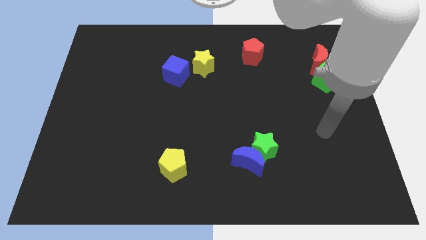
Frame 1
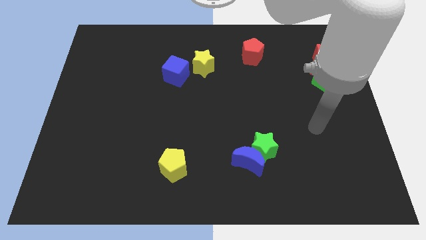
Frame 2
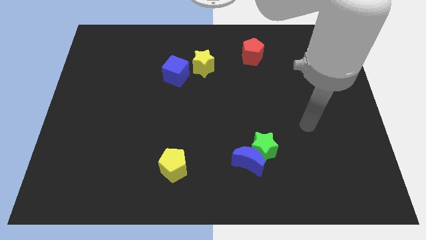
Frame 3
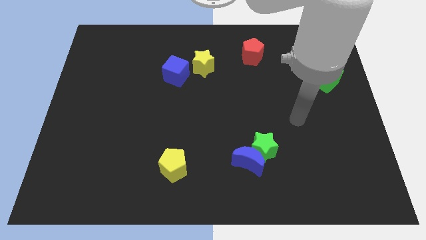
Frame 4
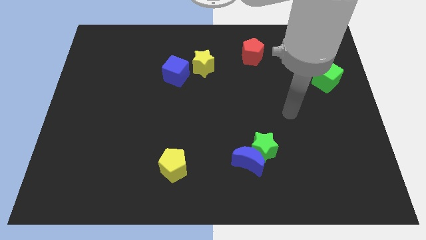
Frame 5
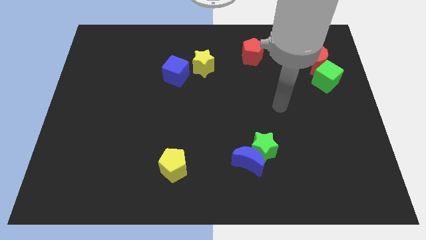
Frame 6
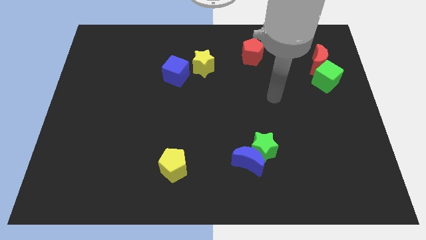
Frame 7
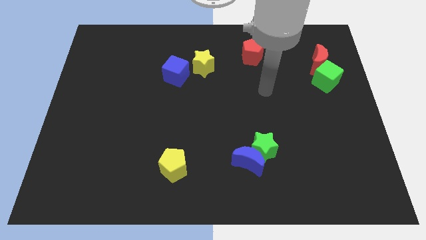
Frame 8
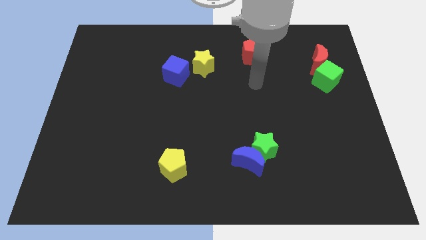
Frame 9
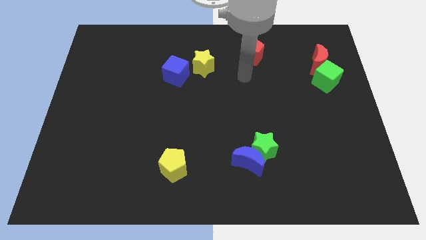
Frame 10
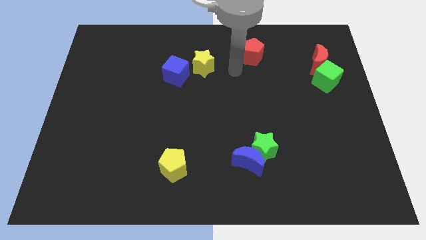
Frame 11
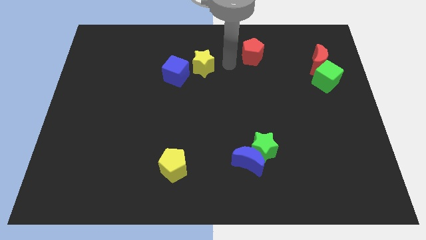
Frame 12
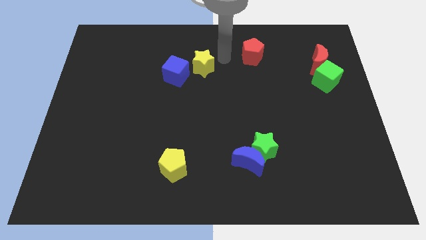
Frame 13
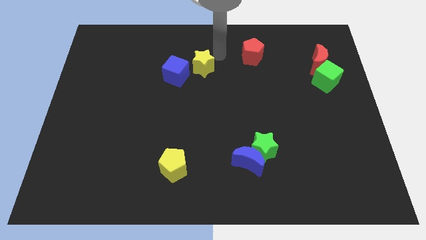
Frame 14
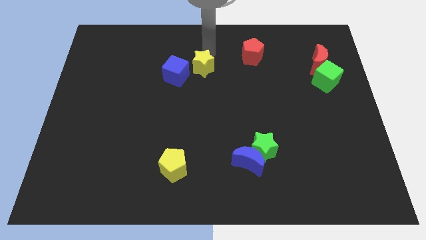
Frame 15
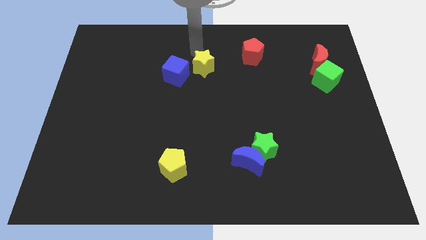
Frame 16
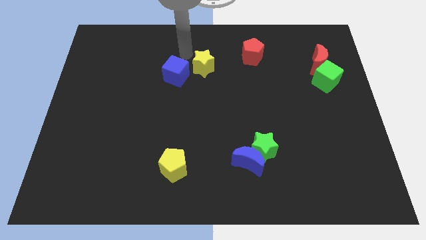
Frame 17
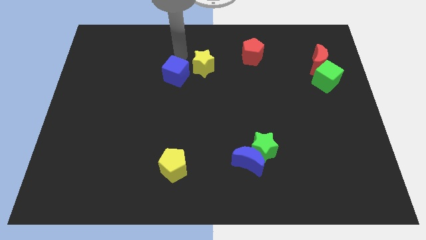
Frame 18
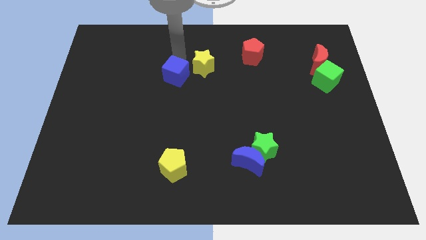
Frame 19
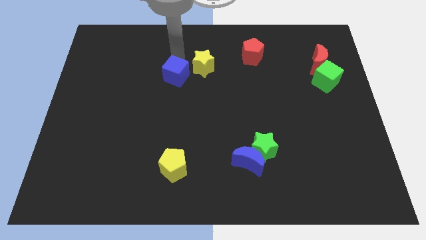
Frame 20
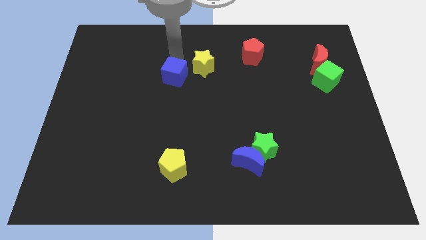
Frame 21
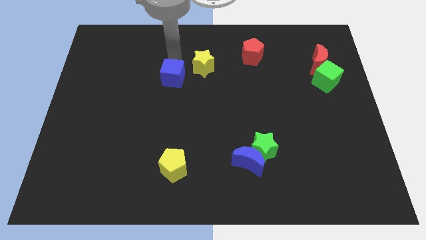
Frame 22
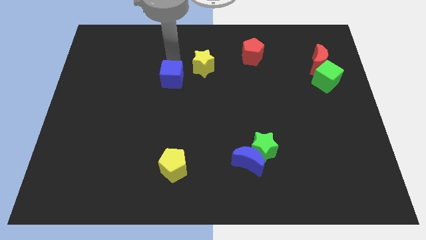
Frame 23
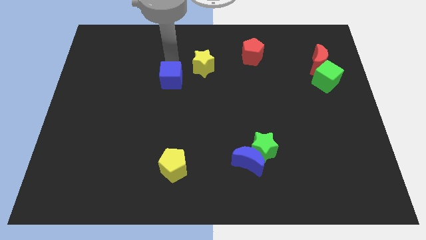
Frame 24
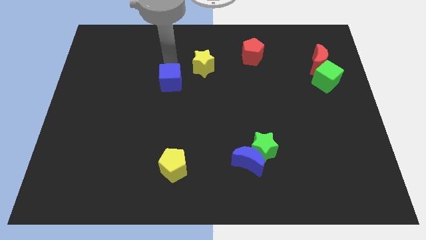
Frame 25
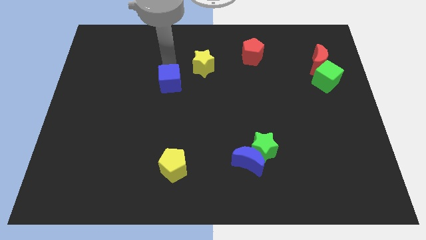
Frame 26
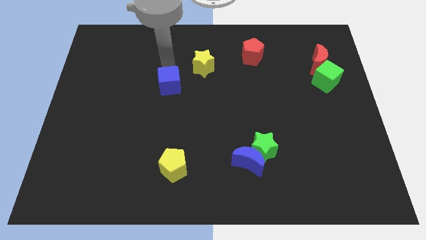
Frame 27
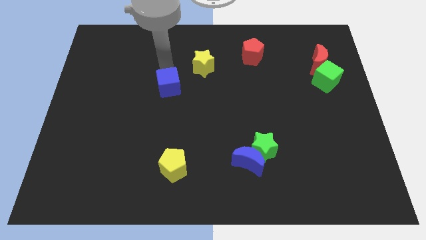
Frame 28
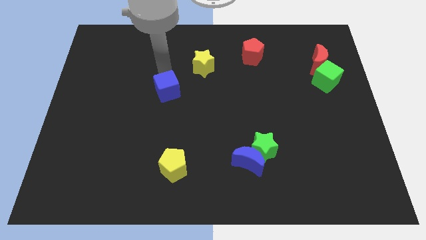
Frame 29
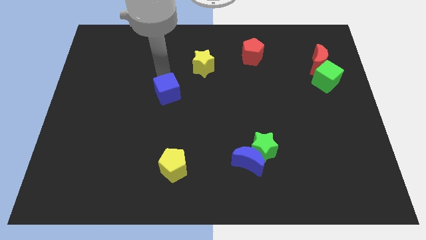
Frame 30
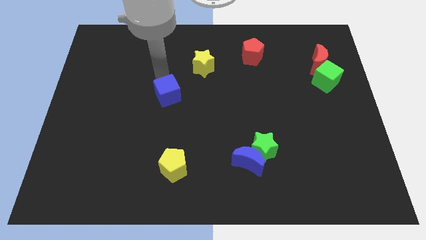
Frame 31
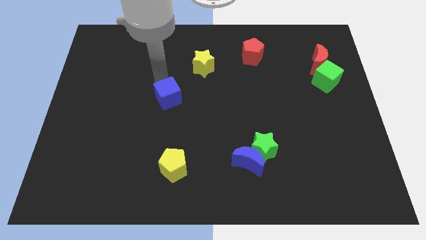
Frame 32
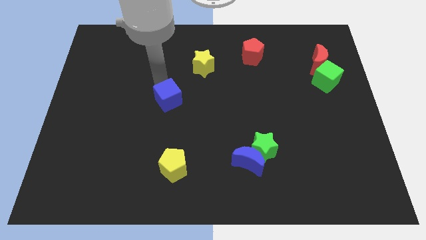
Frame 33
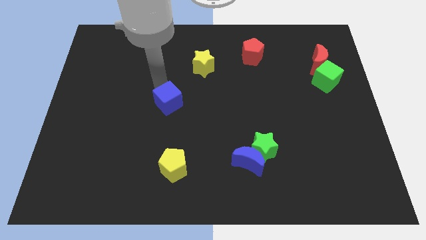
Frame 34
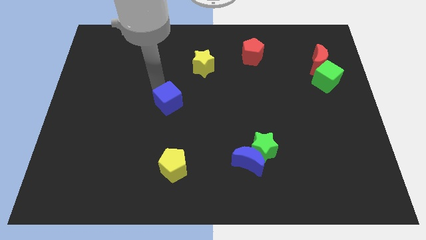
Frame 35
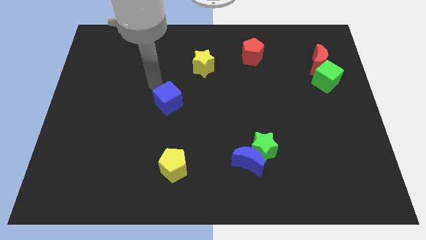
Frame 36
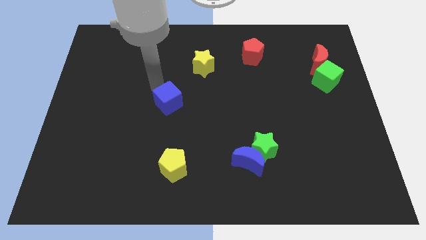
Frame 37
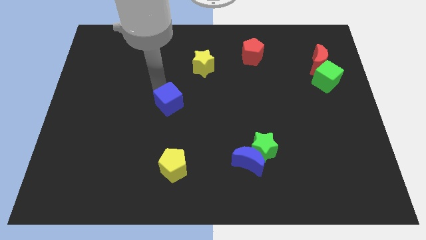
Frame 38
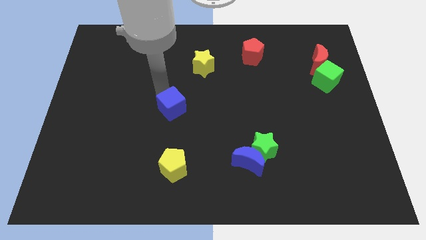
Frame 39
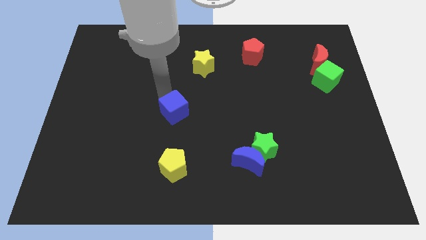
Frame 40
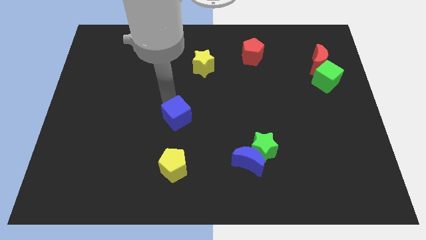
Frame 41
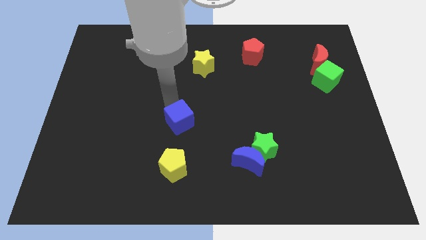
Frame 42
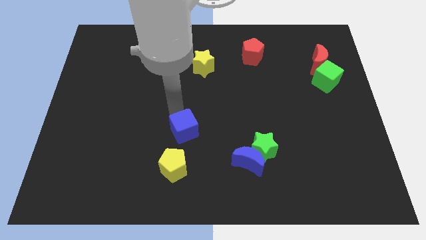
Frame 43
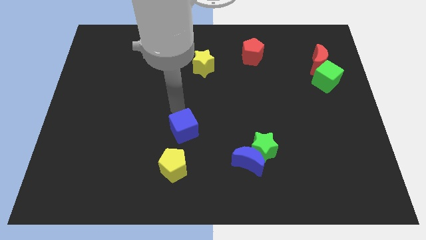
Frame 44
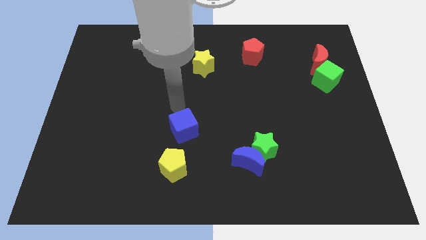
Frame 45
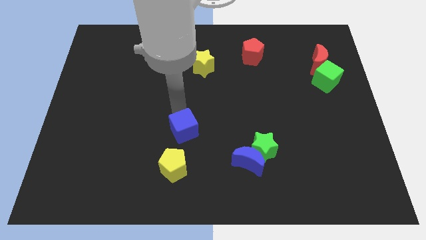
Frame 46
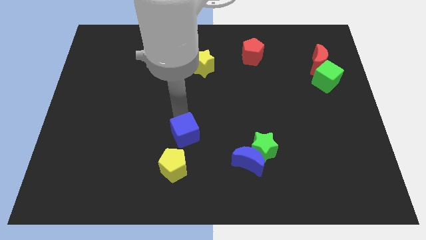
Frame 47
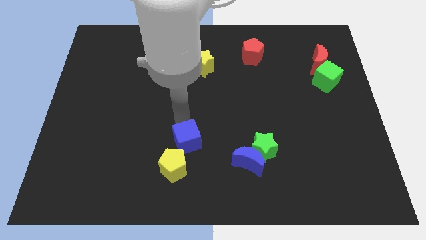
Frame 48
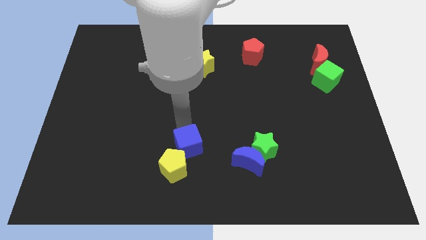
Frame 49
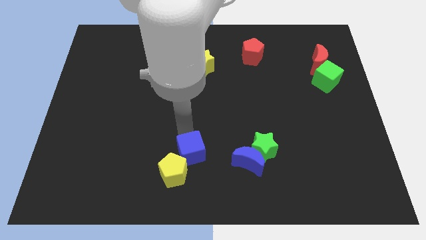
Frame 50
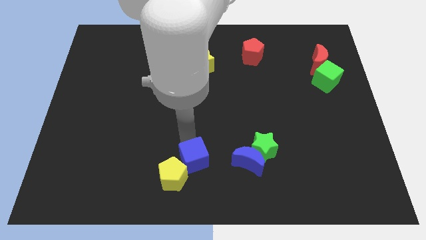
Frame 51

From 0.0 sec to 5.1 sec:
slide the blue cube to the bottom
